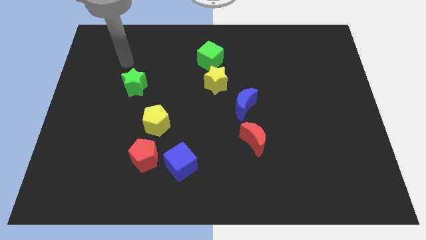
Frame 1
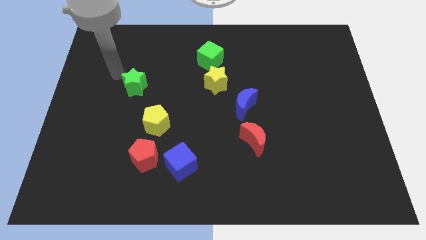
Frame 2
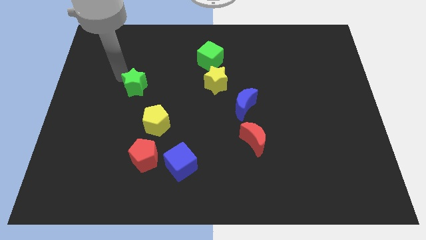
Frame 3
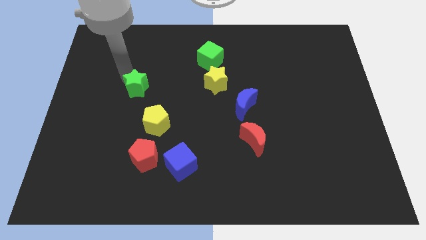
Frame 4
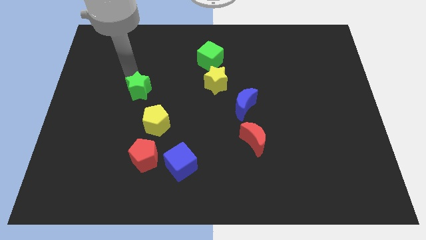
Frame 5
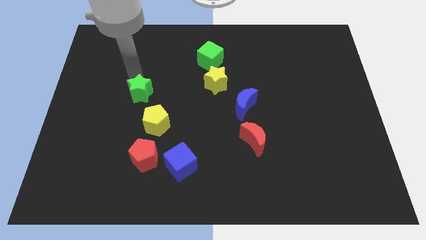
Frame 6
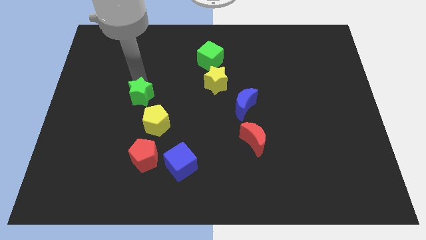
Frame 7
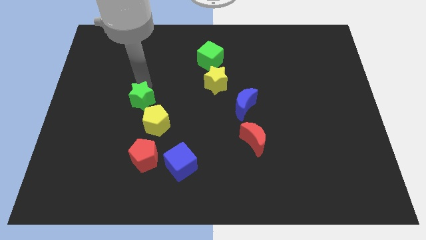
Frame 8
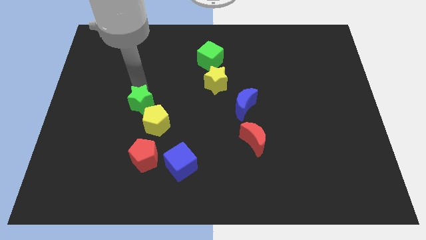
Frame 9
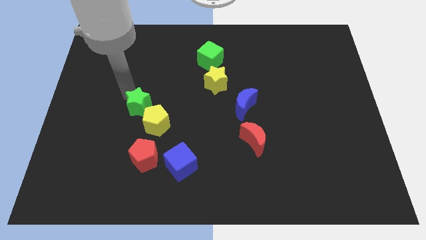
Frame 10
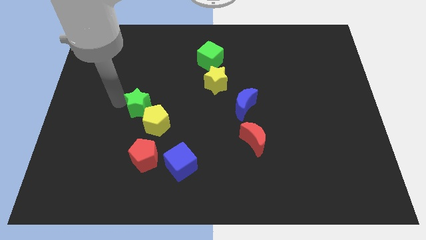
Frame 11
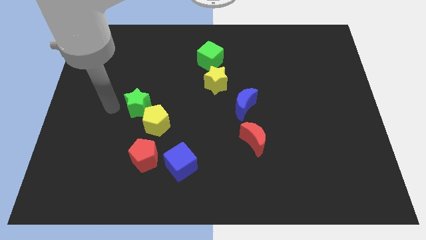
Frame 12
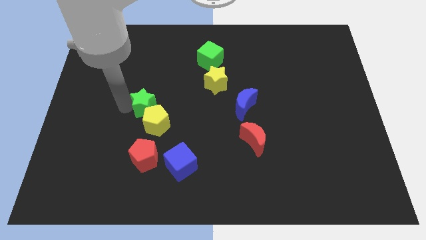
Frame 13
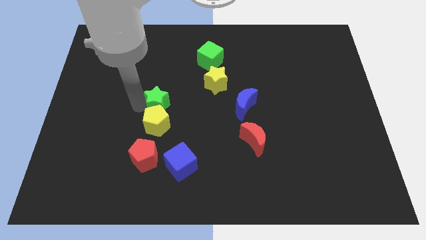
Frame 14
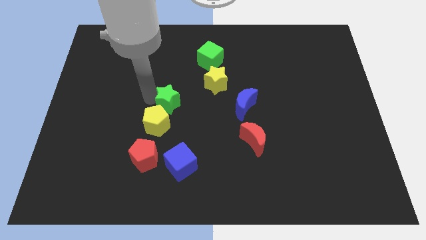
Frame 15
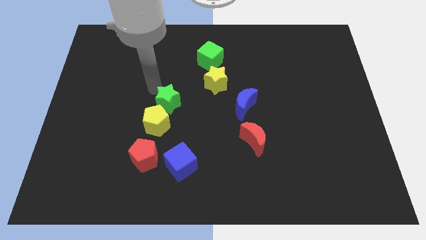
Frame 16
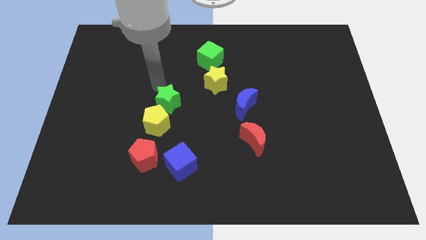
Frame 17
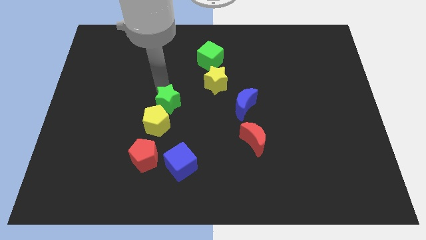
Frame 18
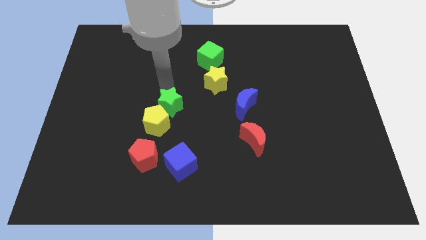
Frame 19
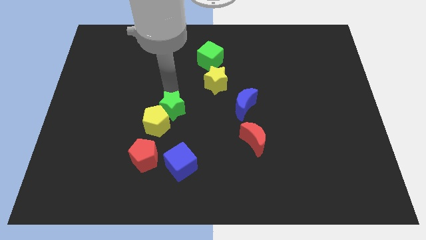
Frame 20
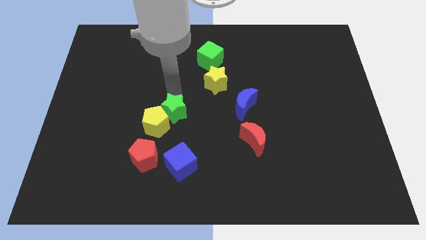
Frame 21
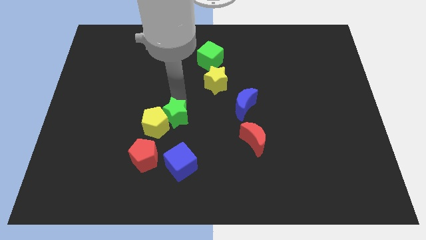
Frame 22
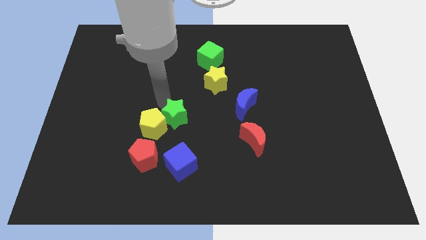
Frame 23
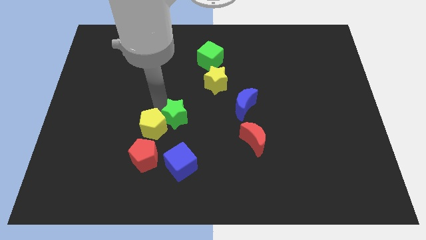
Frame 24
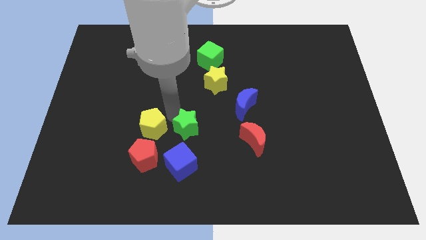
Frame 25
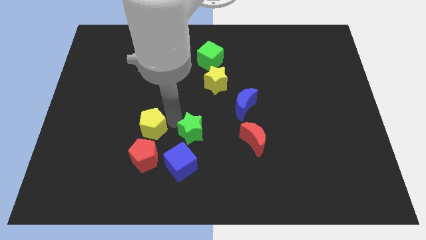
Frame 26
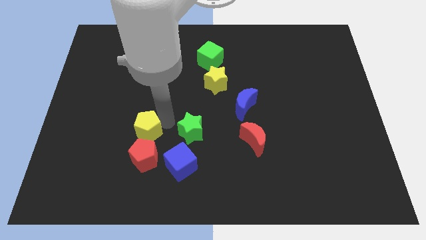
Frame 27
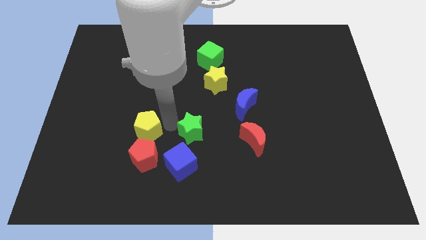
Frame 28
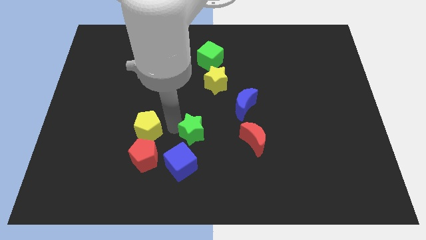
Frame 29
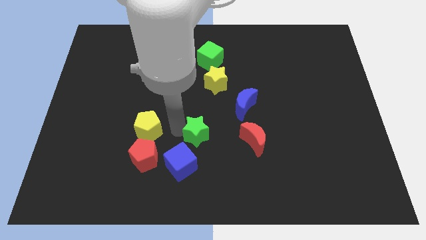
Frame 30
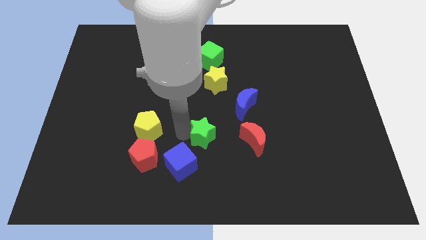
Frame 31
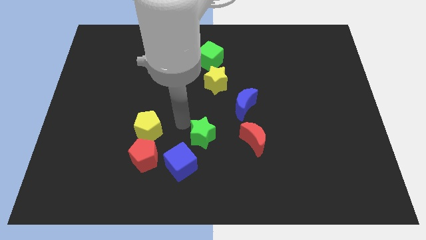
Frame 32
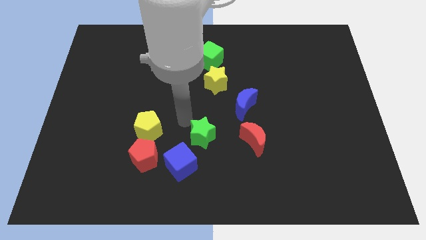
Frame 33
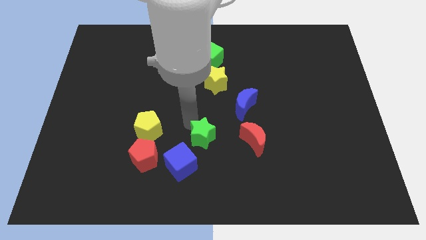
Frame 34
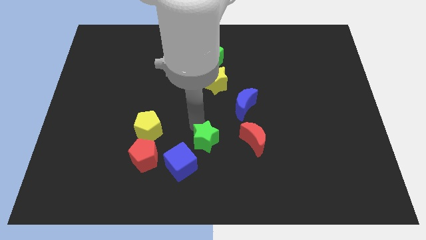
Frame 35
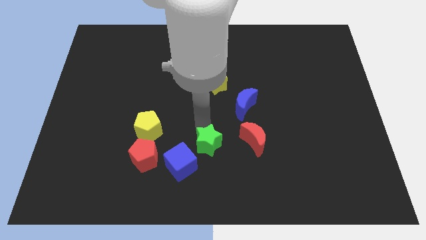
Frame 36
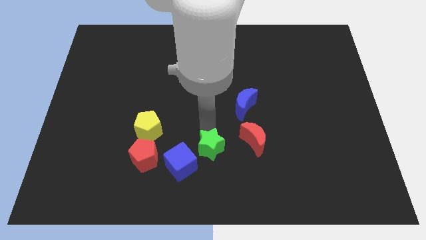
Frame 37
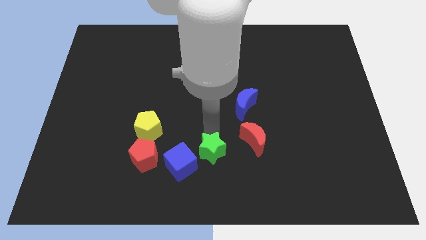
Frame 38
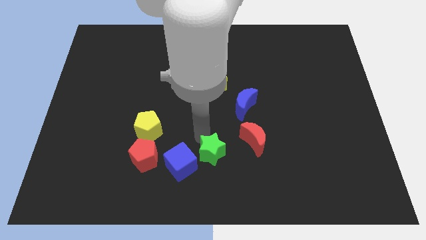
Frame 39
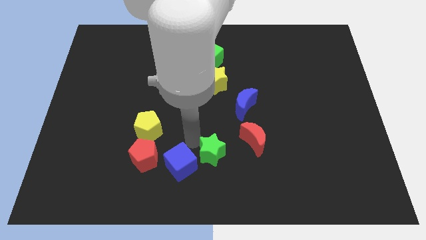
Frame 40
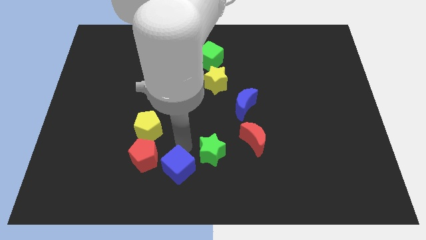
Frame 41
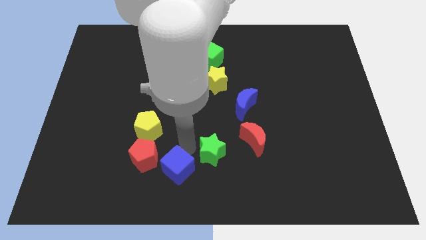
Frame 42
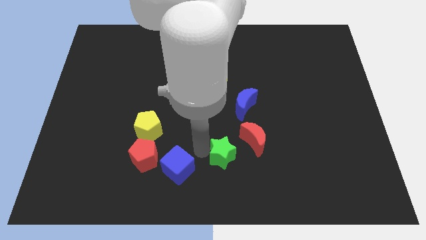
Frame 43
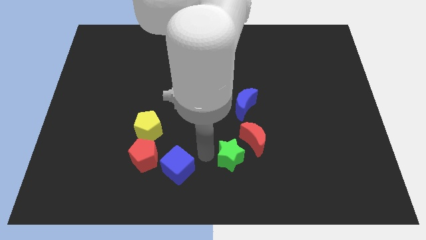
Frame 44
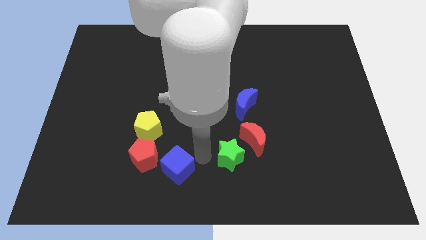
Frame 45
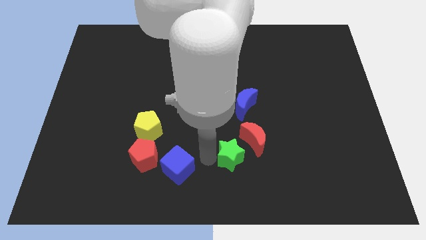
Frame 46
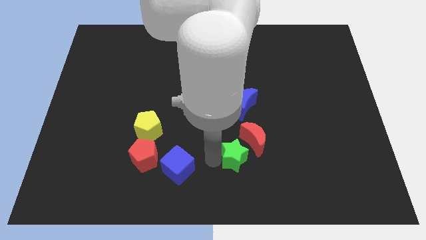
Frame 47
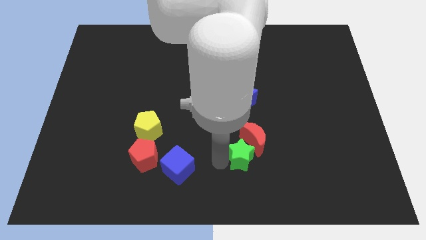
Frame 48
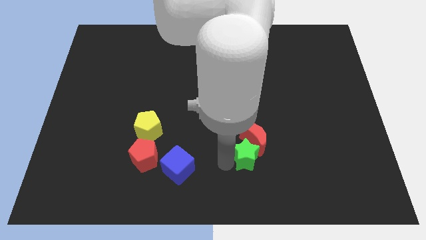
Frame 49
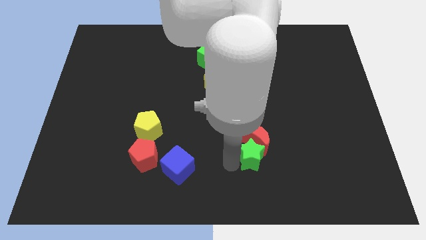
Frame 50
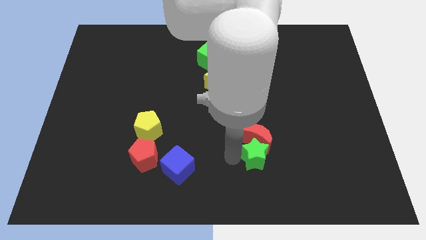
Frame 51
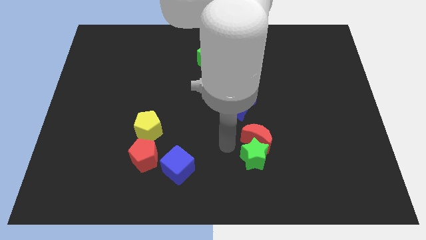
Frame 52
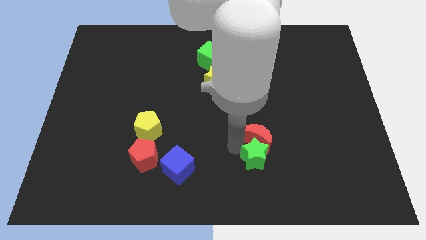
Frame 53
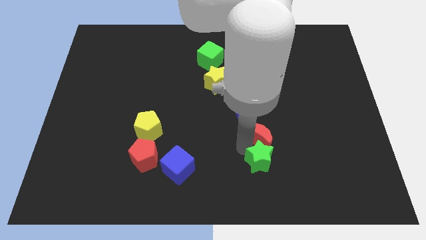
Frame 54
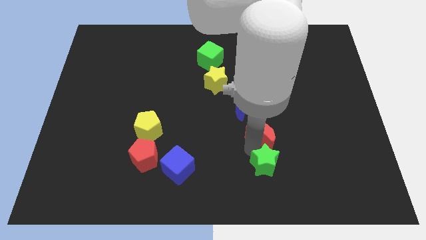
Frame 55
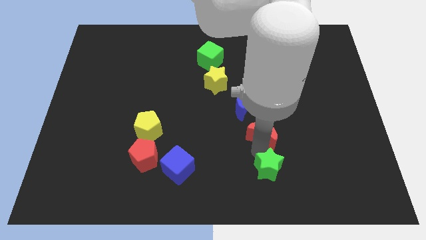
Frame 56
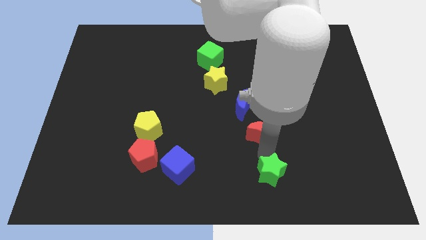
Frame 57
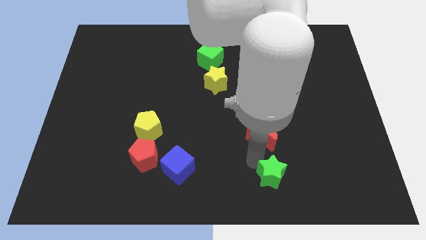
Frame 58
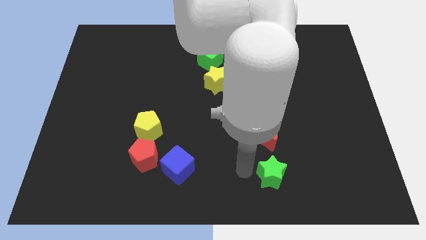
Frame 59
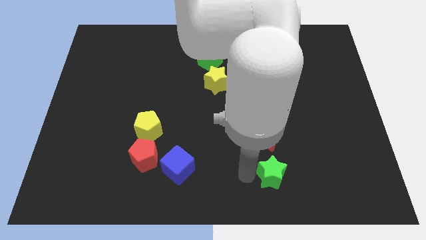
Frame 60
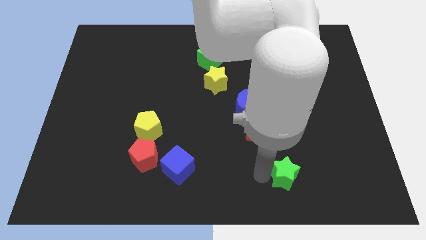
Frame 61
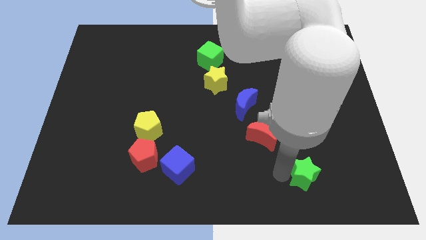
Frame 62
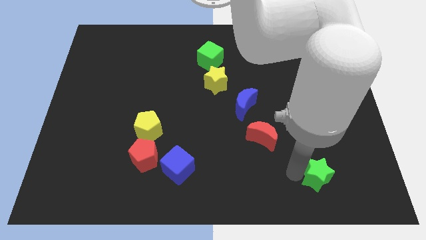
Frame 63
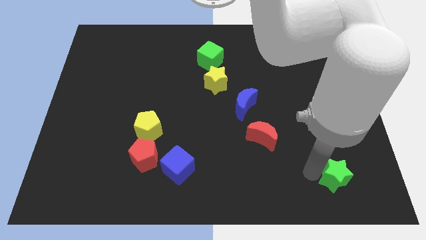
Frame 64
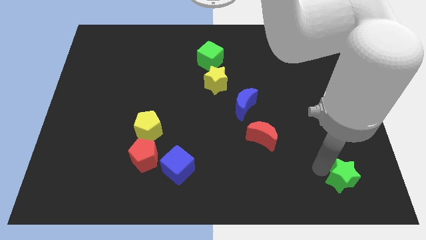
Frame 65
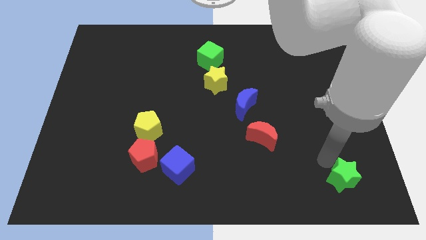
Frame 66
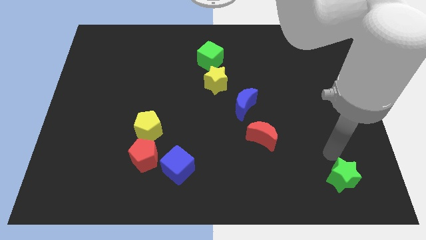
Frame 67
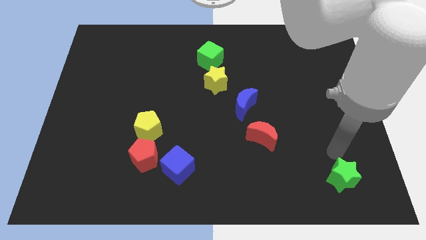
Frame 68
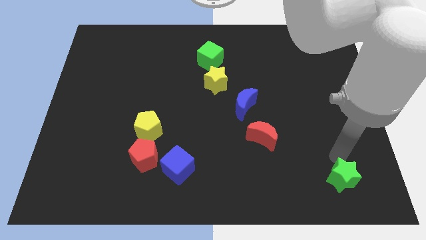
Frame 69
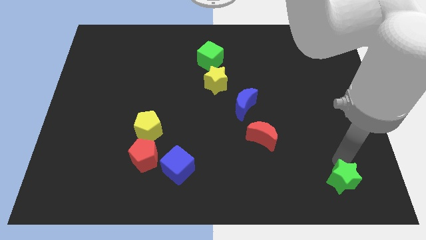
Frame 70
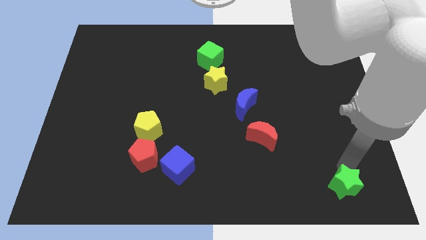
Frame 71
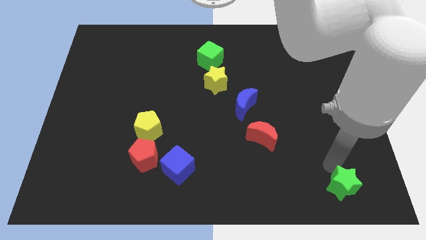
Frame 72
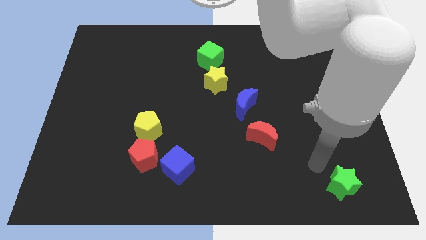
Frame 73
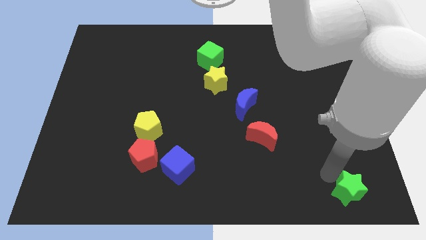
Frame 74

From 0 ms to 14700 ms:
move the green star to the lower right corner
